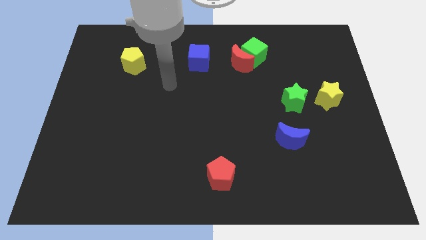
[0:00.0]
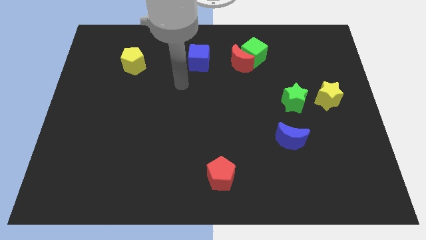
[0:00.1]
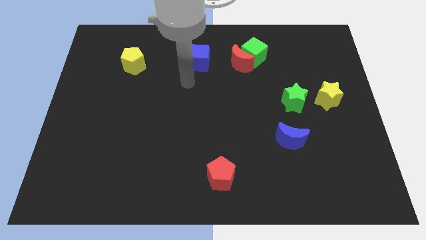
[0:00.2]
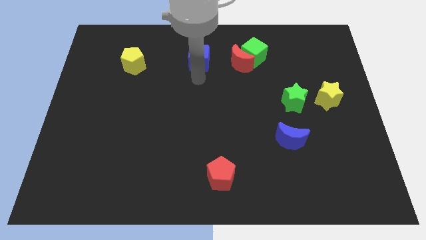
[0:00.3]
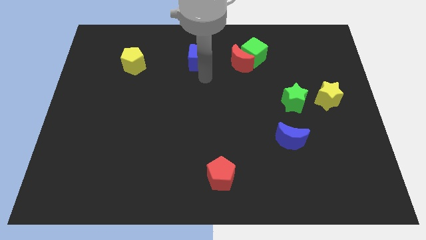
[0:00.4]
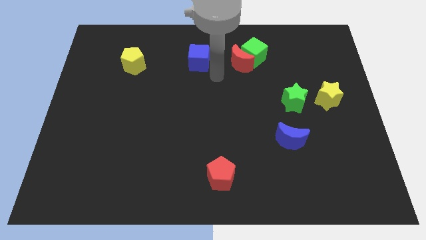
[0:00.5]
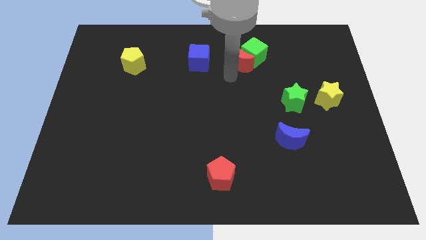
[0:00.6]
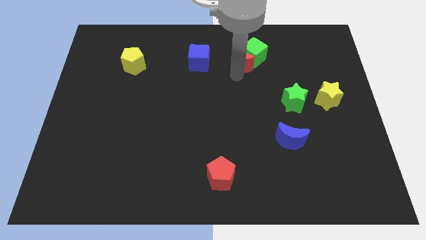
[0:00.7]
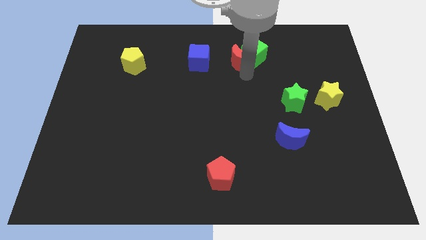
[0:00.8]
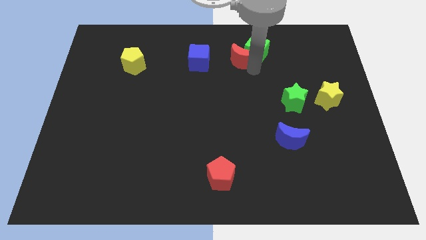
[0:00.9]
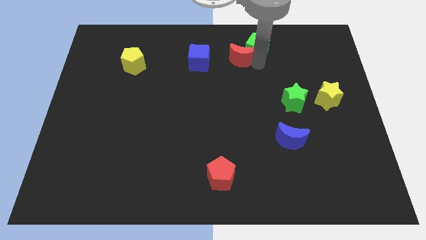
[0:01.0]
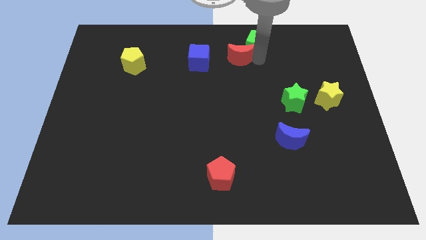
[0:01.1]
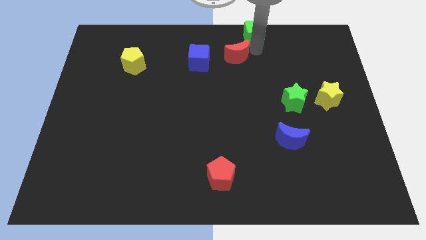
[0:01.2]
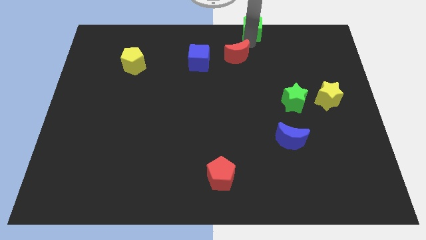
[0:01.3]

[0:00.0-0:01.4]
separate the red moon from the green cube

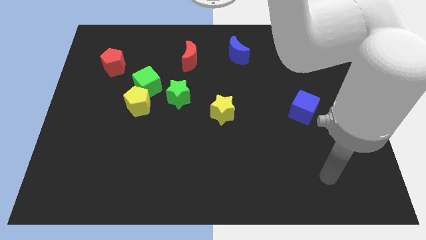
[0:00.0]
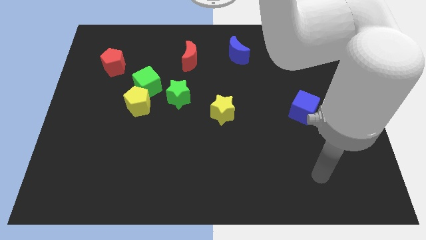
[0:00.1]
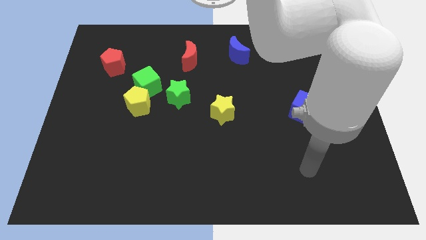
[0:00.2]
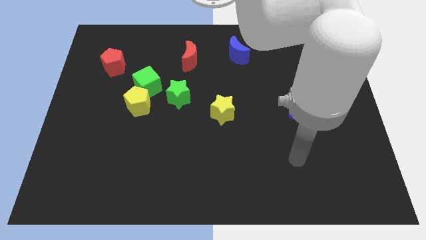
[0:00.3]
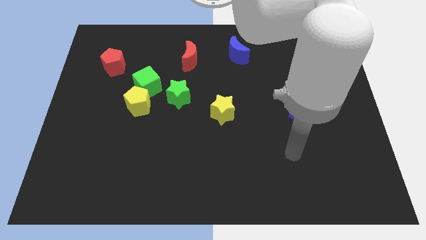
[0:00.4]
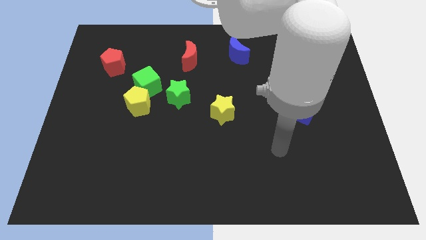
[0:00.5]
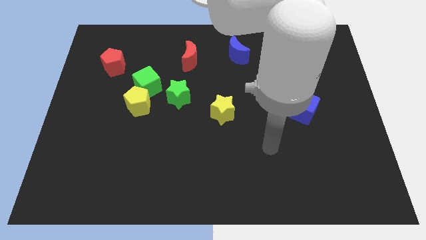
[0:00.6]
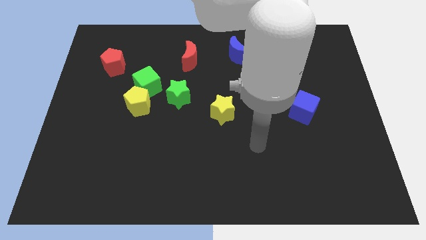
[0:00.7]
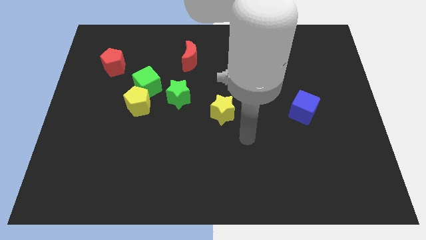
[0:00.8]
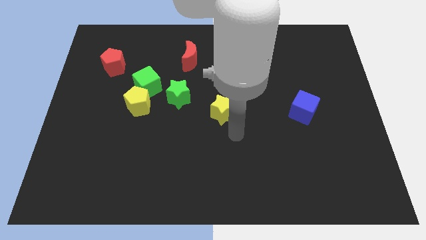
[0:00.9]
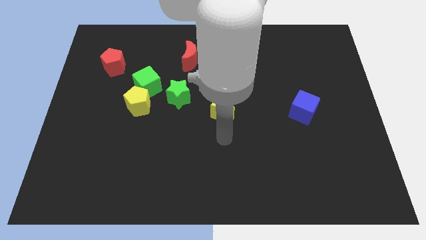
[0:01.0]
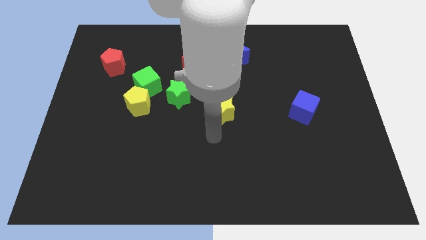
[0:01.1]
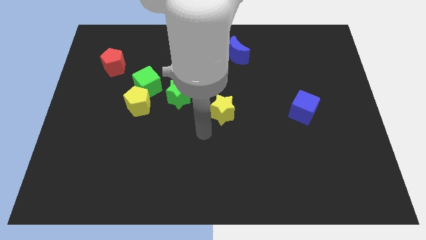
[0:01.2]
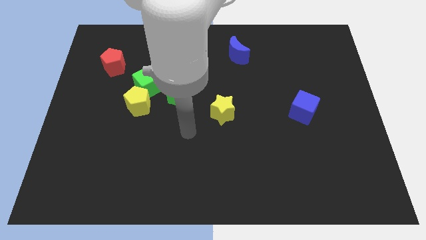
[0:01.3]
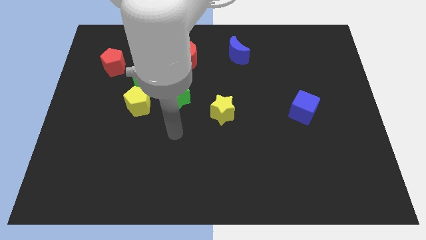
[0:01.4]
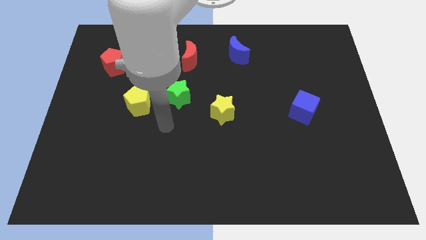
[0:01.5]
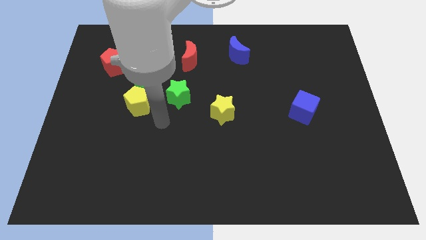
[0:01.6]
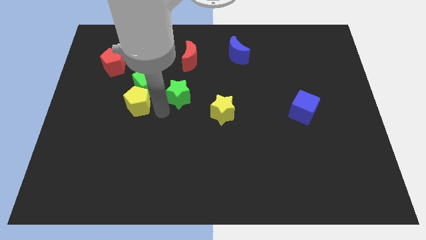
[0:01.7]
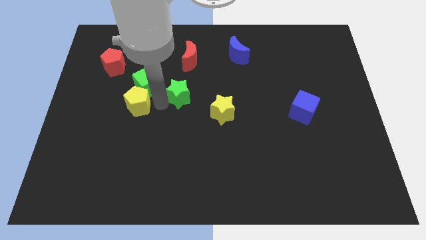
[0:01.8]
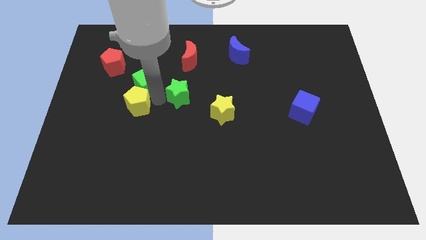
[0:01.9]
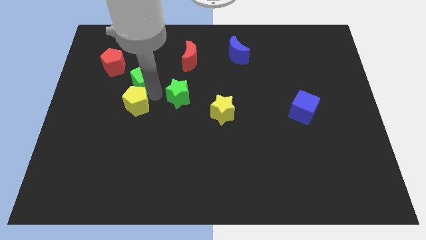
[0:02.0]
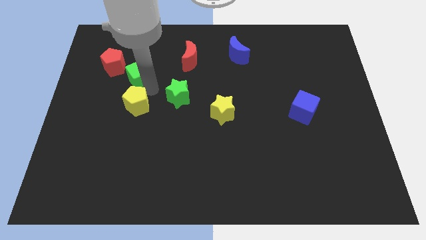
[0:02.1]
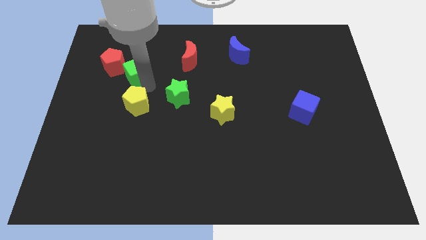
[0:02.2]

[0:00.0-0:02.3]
move the green cube away from the yellow pentagon and green star

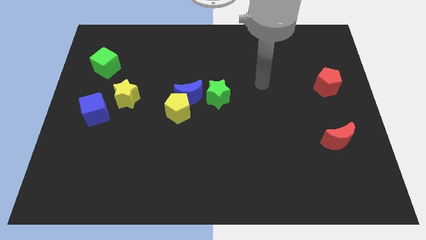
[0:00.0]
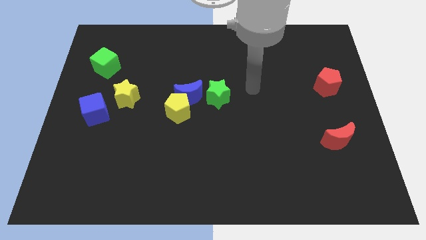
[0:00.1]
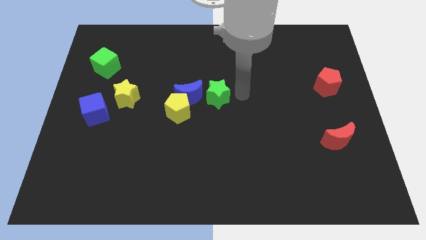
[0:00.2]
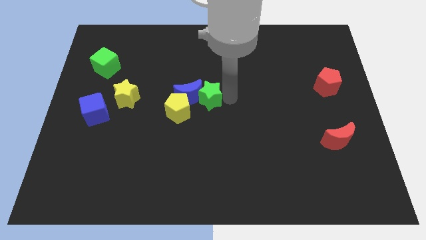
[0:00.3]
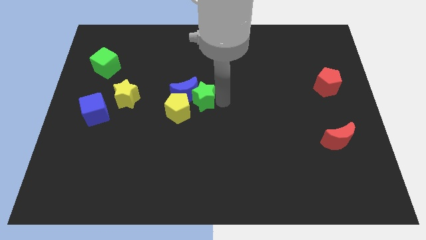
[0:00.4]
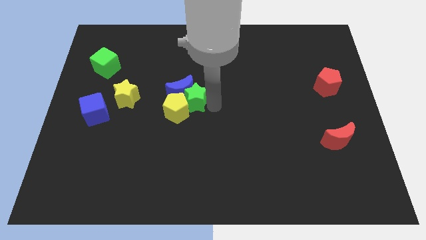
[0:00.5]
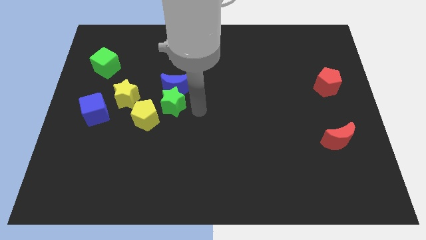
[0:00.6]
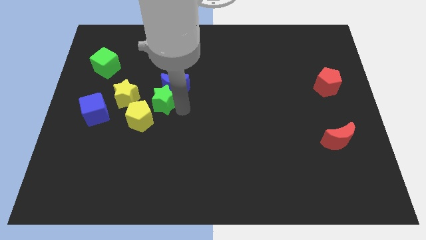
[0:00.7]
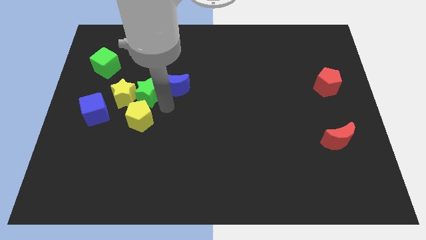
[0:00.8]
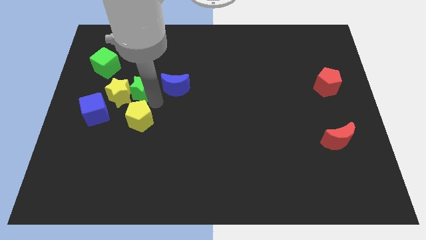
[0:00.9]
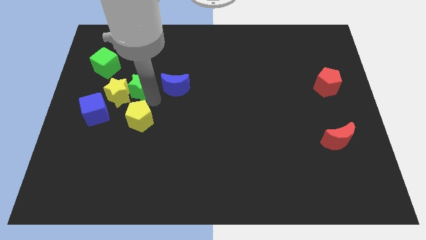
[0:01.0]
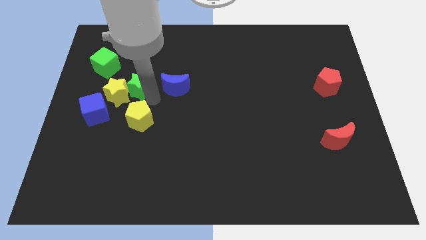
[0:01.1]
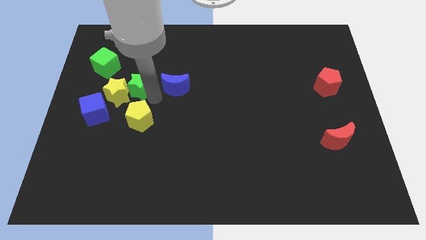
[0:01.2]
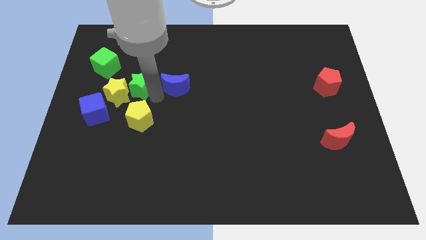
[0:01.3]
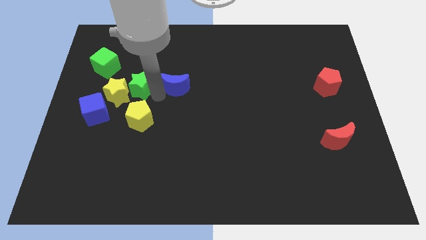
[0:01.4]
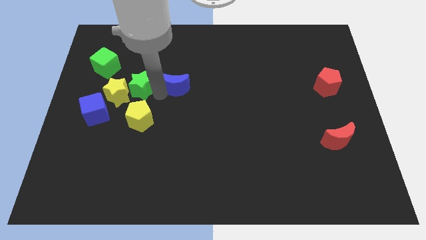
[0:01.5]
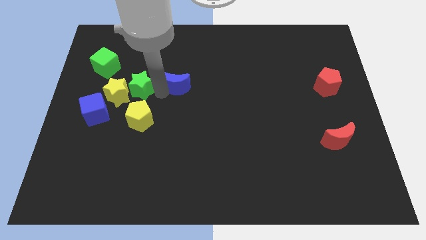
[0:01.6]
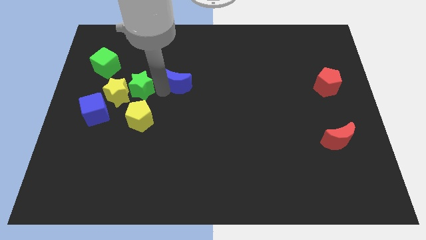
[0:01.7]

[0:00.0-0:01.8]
separate the blue moon from the yellow pentagon and green star

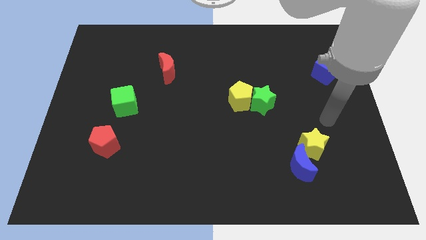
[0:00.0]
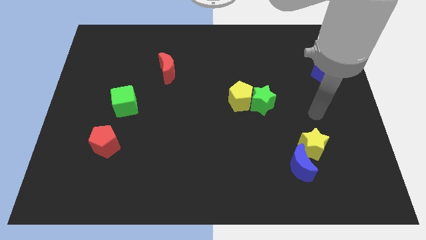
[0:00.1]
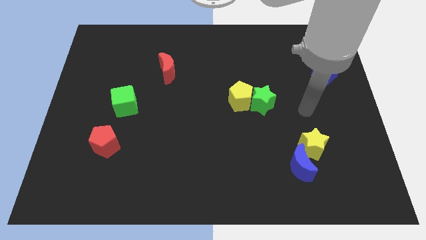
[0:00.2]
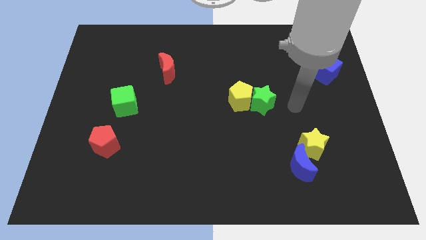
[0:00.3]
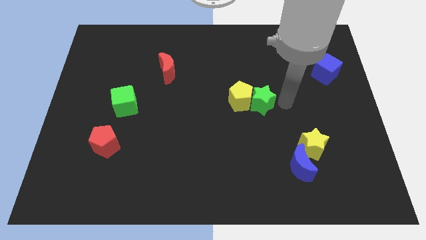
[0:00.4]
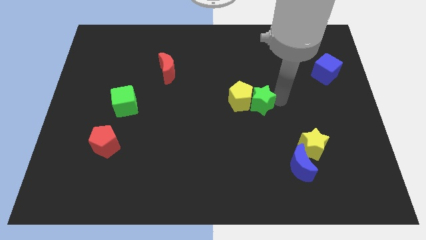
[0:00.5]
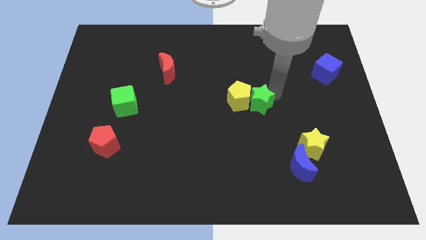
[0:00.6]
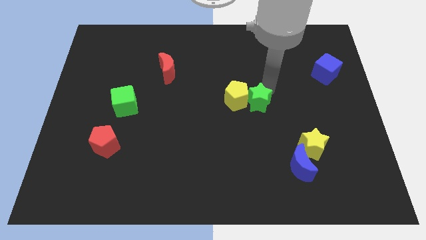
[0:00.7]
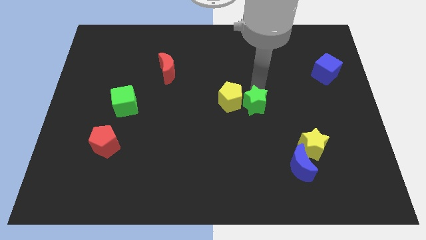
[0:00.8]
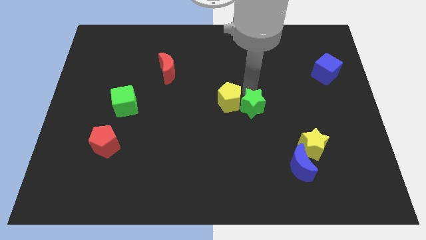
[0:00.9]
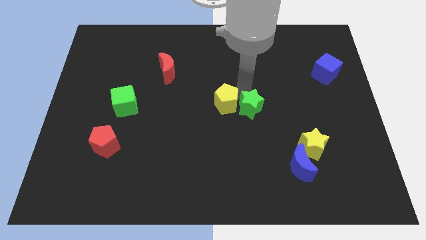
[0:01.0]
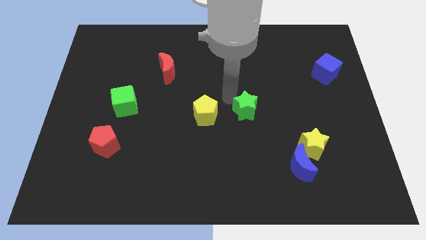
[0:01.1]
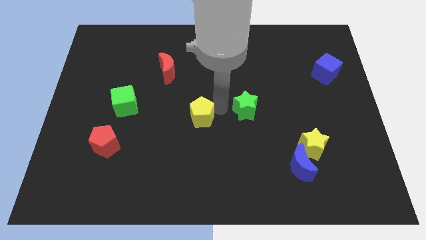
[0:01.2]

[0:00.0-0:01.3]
pull the green star apart from the yellow pentagon

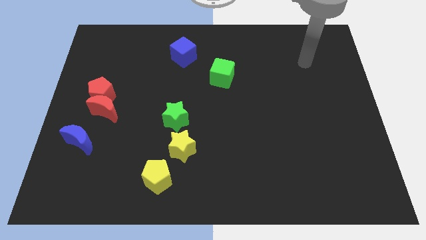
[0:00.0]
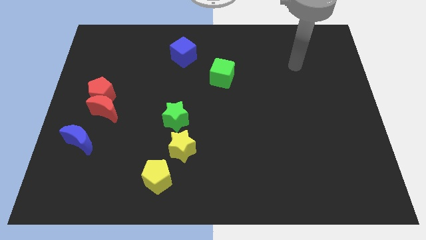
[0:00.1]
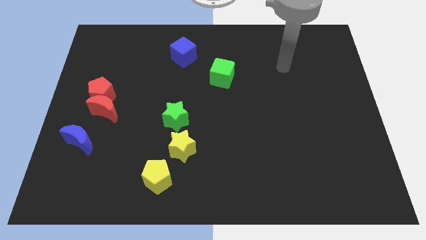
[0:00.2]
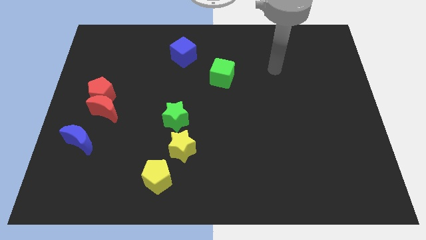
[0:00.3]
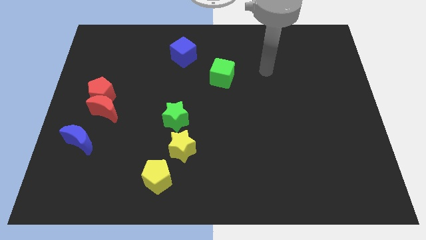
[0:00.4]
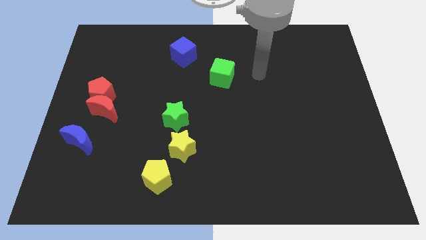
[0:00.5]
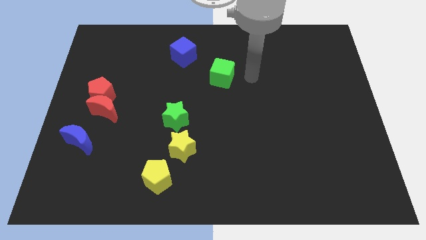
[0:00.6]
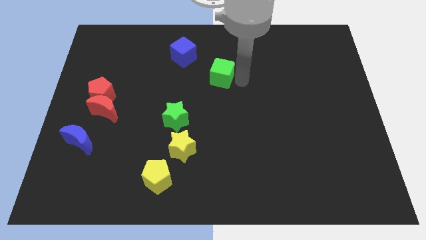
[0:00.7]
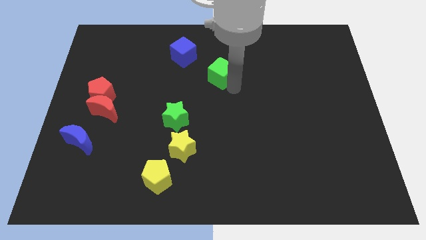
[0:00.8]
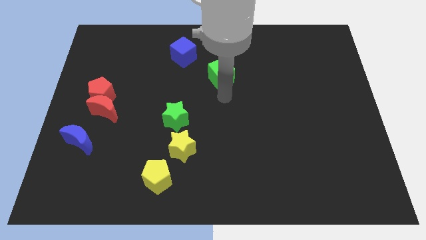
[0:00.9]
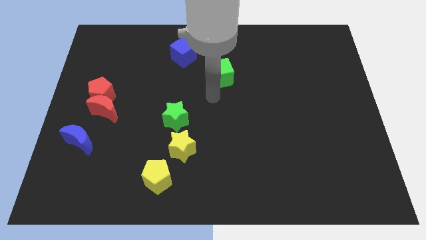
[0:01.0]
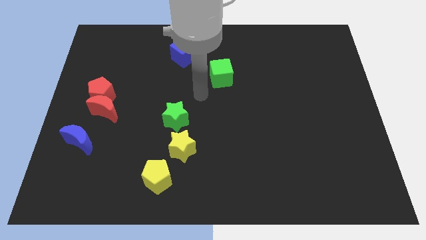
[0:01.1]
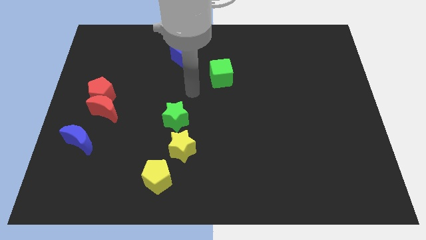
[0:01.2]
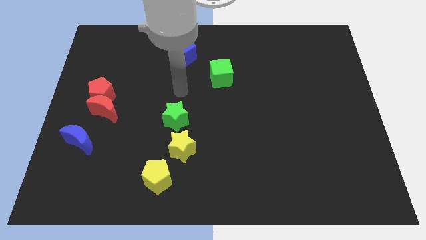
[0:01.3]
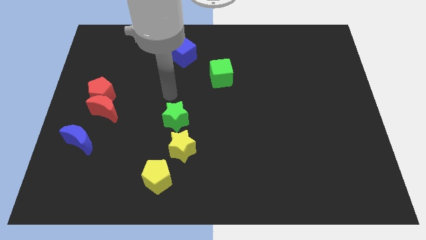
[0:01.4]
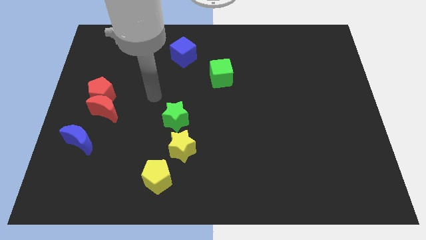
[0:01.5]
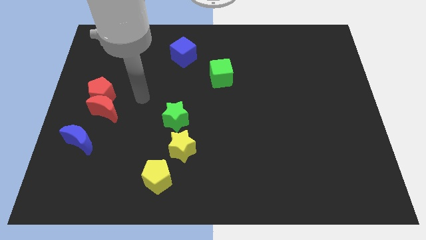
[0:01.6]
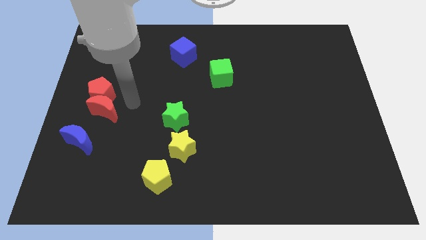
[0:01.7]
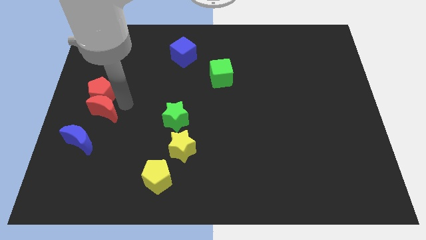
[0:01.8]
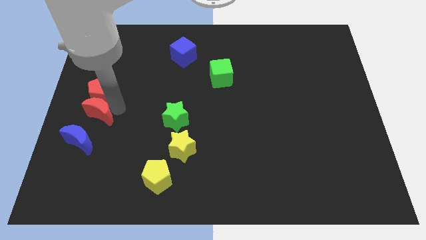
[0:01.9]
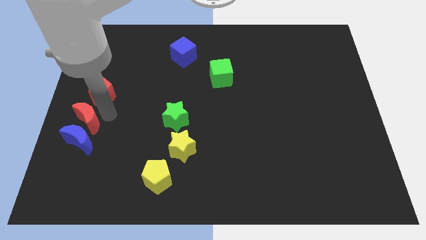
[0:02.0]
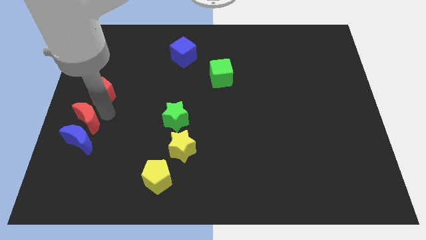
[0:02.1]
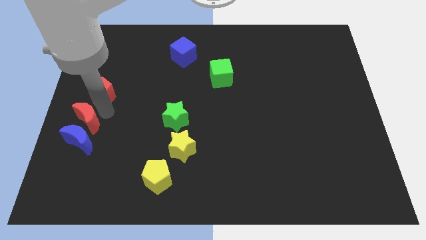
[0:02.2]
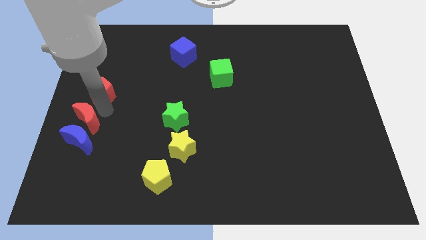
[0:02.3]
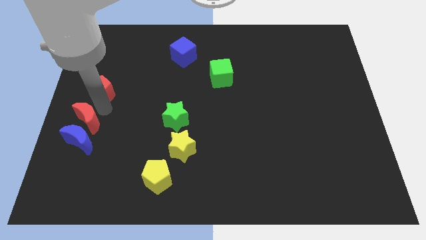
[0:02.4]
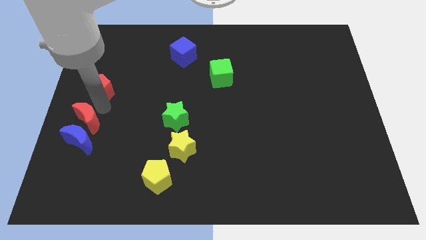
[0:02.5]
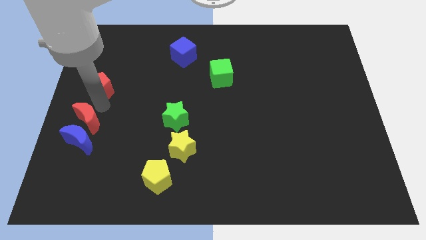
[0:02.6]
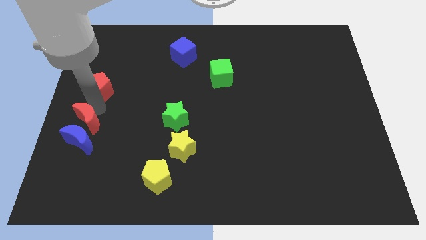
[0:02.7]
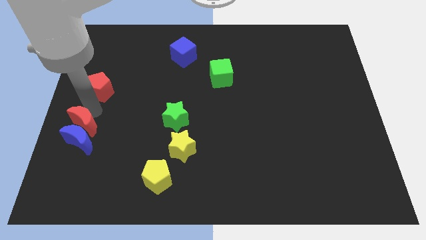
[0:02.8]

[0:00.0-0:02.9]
pull the red pentagon apart from the red moon
